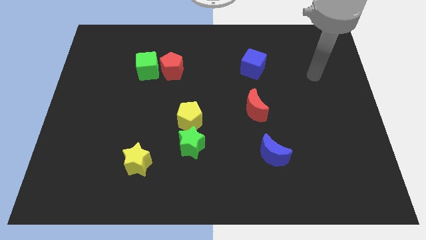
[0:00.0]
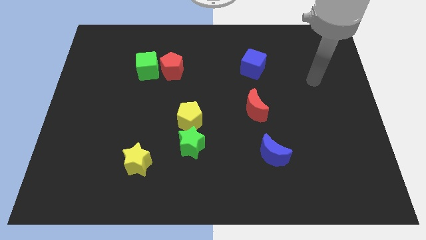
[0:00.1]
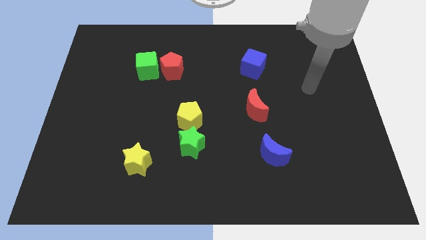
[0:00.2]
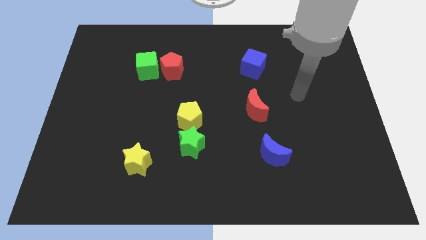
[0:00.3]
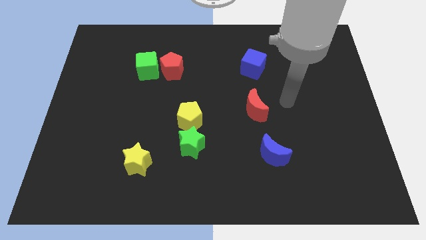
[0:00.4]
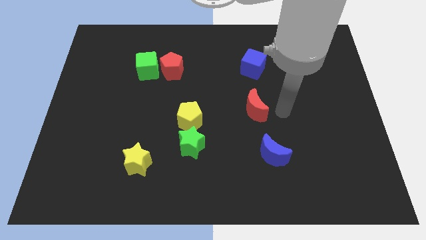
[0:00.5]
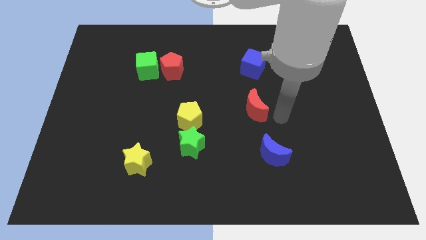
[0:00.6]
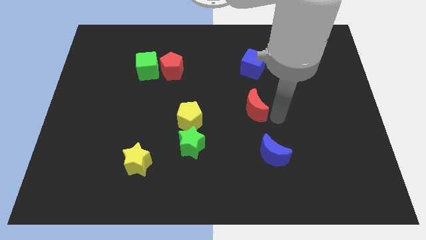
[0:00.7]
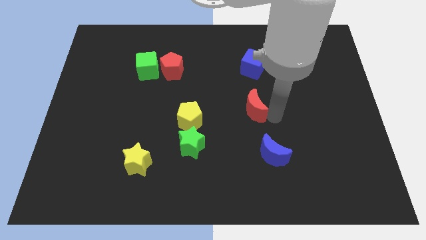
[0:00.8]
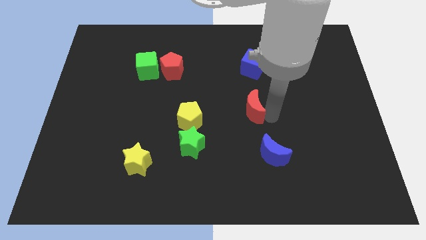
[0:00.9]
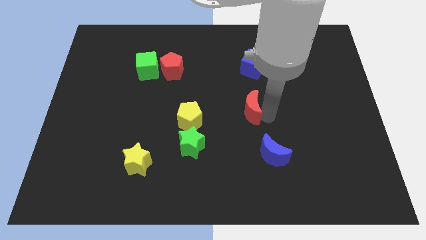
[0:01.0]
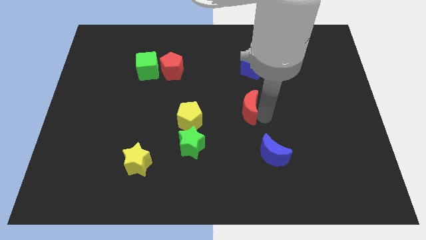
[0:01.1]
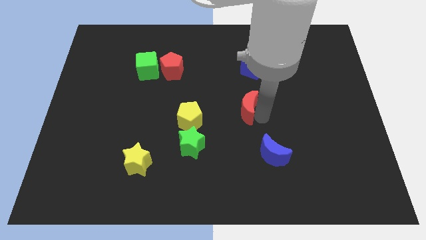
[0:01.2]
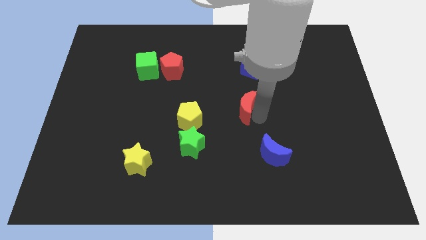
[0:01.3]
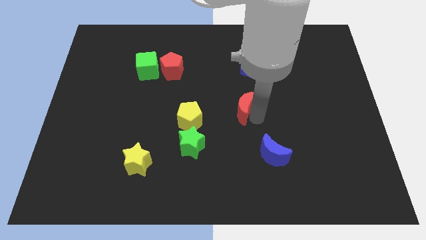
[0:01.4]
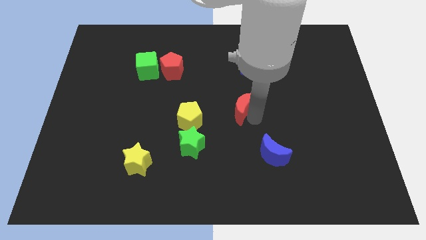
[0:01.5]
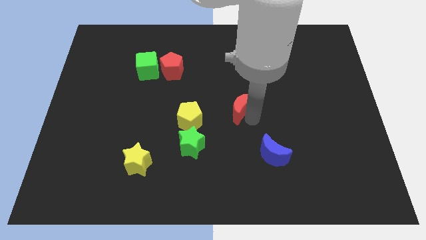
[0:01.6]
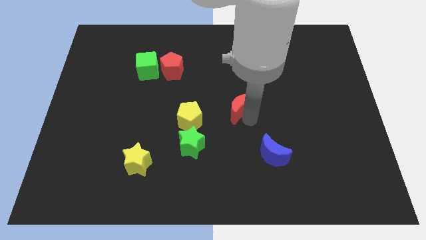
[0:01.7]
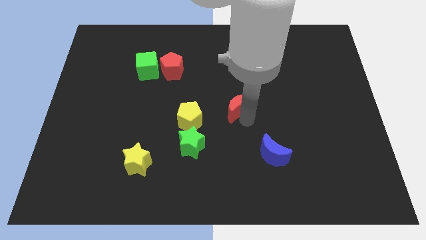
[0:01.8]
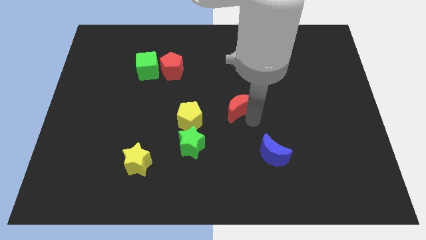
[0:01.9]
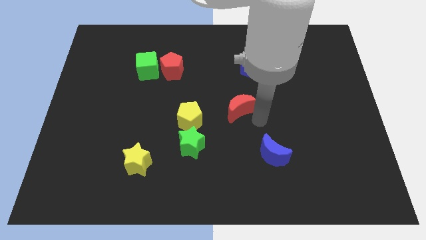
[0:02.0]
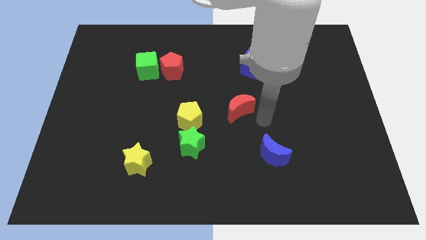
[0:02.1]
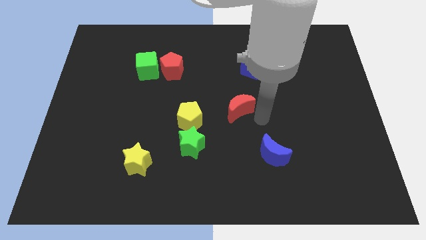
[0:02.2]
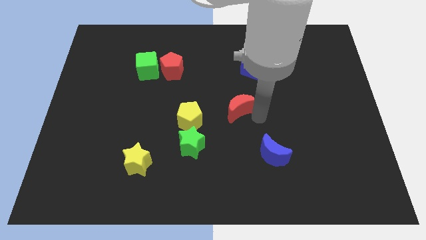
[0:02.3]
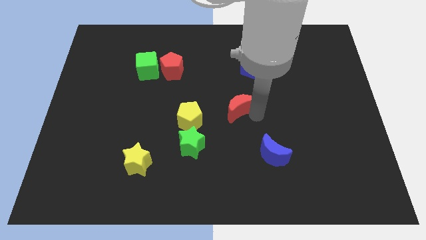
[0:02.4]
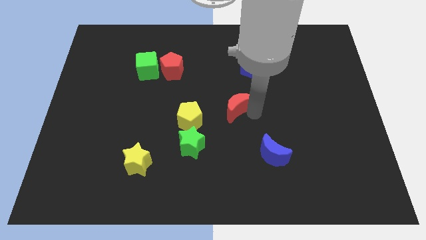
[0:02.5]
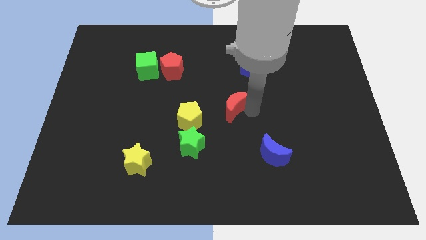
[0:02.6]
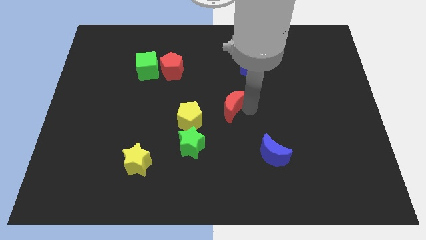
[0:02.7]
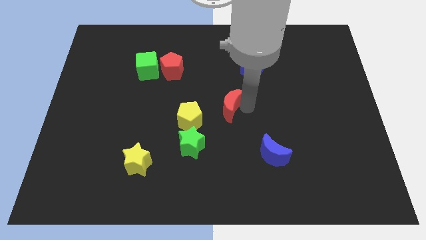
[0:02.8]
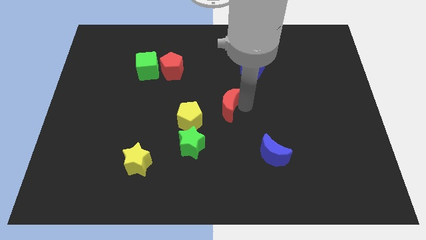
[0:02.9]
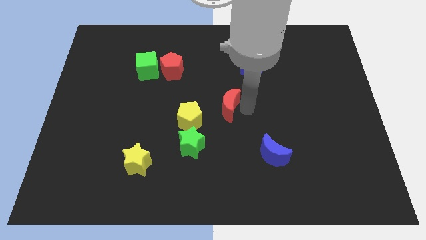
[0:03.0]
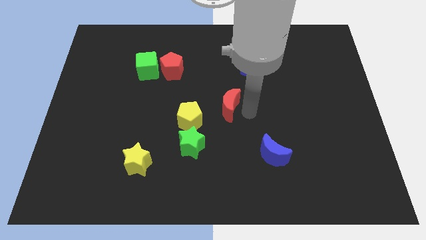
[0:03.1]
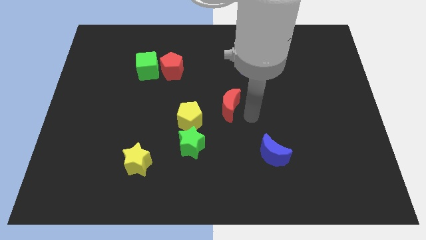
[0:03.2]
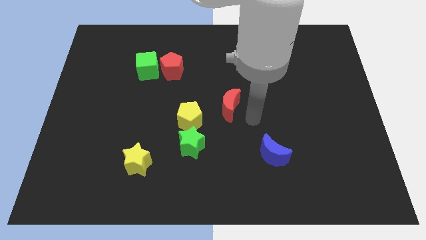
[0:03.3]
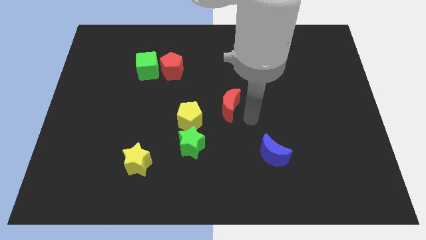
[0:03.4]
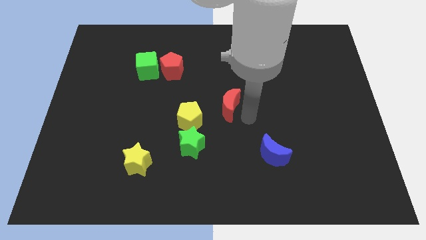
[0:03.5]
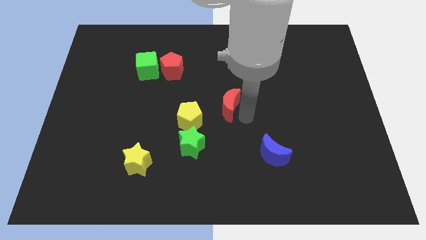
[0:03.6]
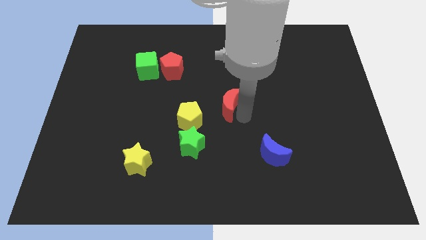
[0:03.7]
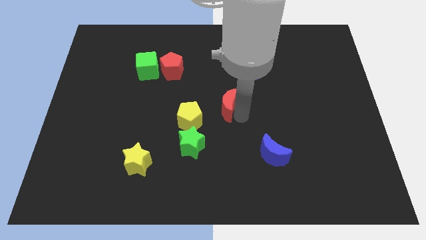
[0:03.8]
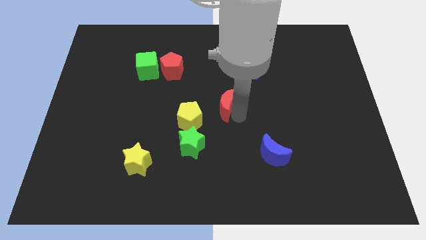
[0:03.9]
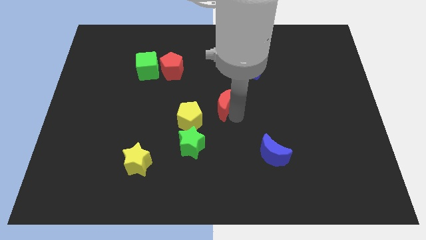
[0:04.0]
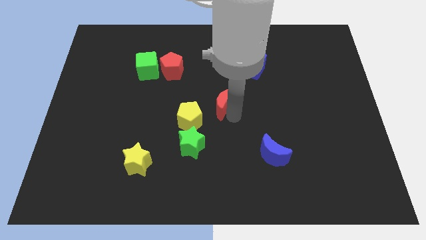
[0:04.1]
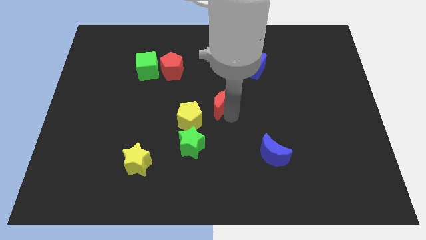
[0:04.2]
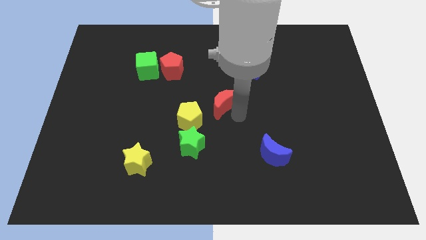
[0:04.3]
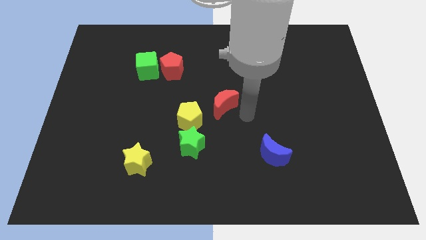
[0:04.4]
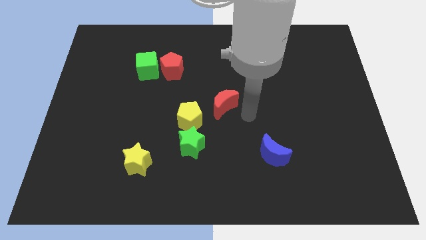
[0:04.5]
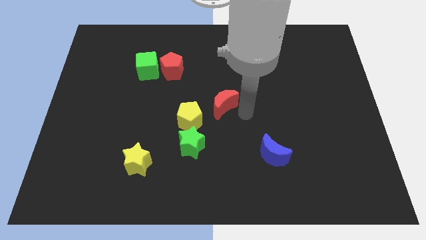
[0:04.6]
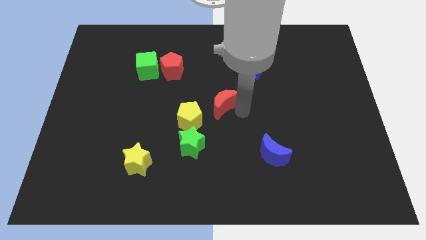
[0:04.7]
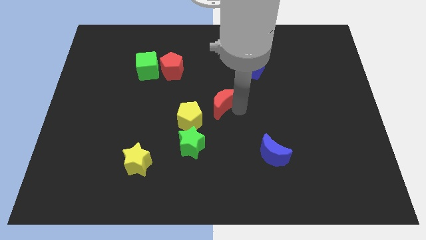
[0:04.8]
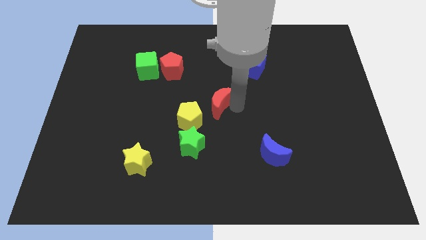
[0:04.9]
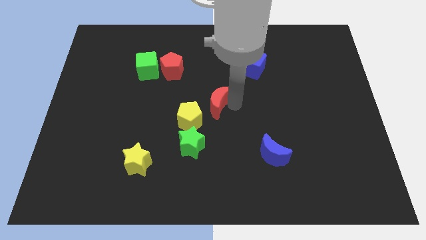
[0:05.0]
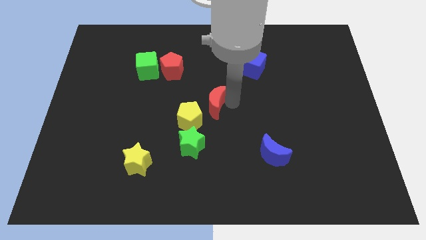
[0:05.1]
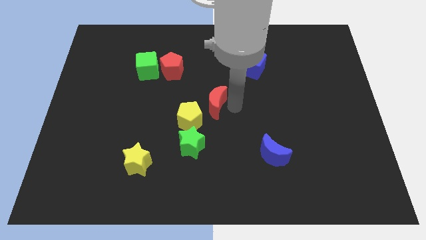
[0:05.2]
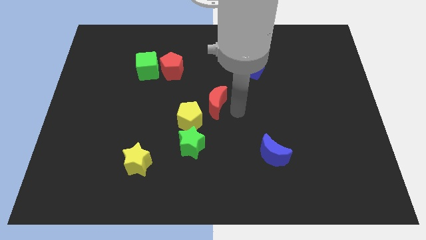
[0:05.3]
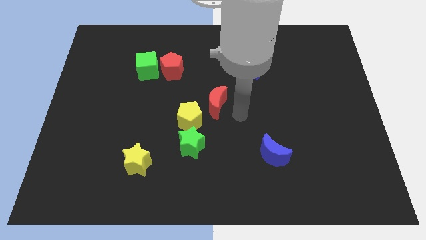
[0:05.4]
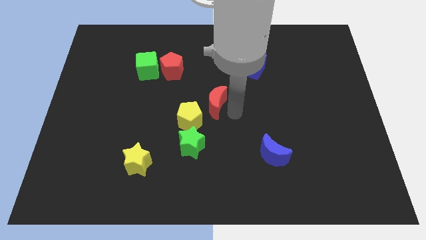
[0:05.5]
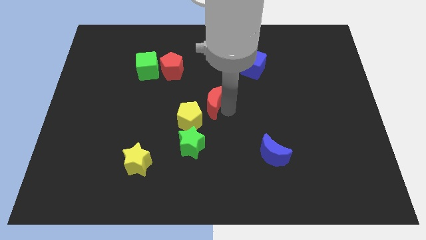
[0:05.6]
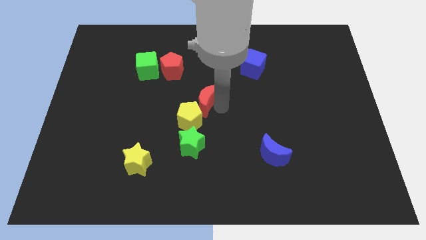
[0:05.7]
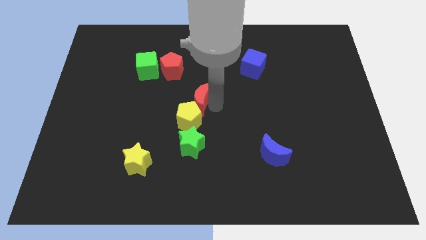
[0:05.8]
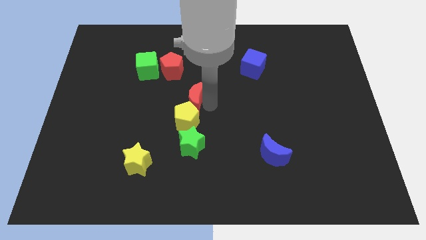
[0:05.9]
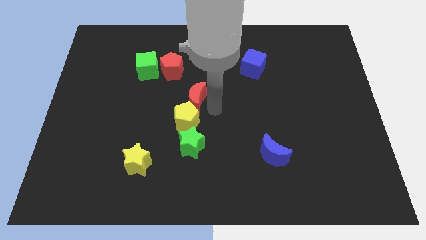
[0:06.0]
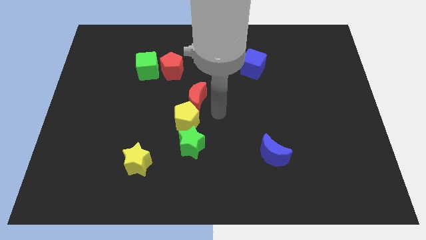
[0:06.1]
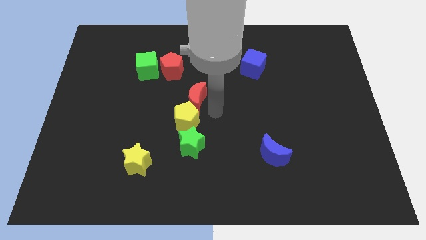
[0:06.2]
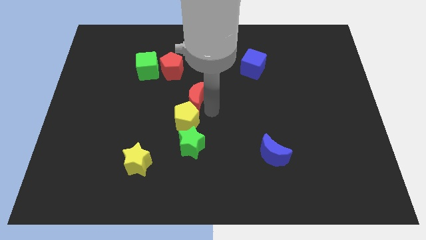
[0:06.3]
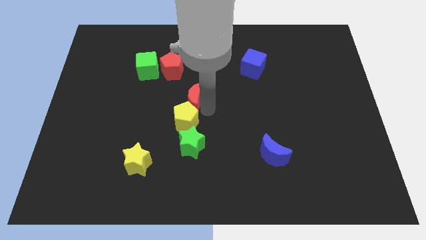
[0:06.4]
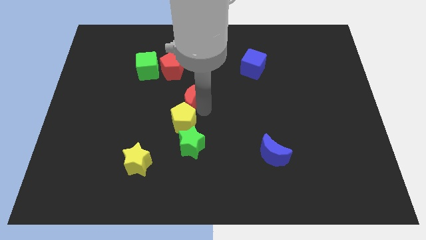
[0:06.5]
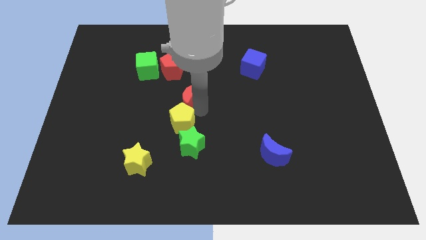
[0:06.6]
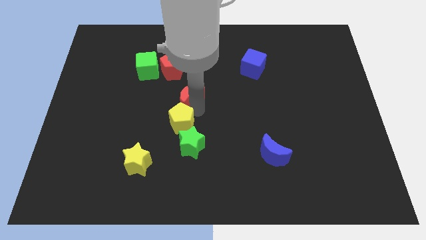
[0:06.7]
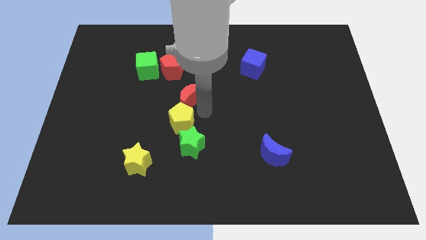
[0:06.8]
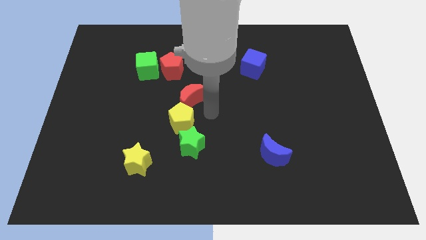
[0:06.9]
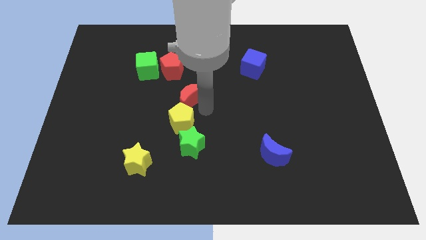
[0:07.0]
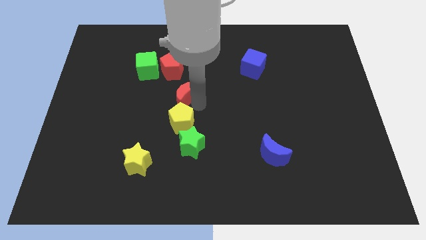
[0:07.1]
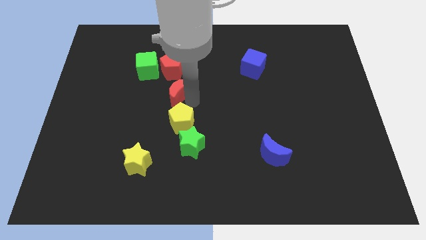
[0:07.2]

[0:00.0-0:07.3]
move the red moon to the bottom right of the green cube
